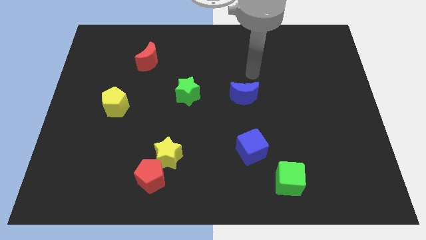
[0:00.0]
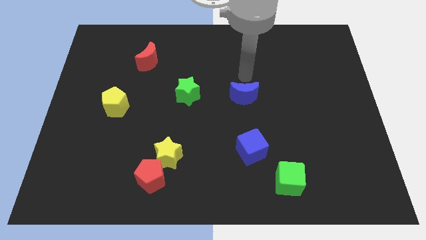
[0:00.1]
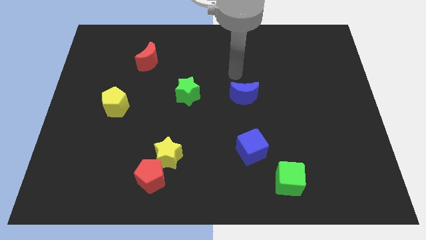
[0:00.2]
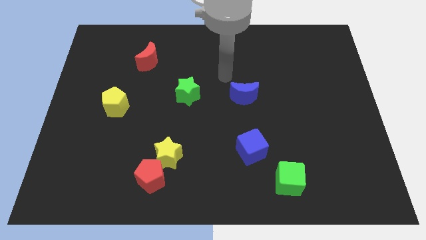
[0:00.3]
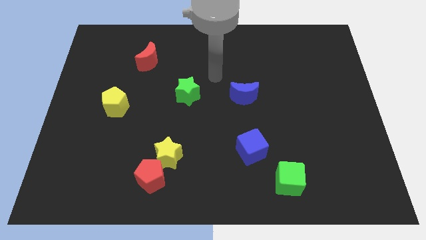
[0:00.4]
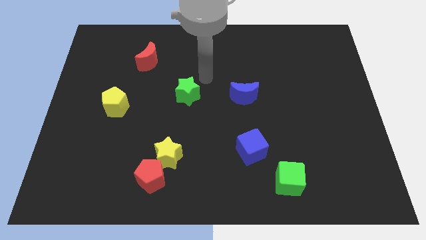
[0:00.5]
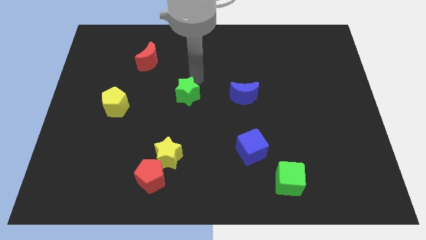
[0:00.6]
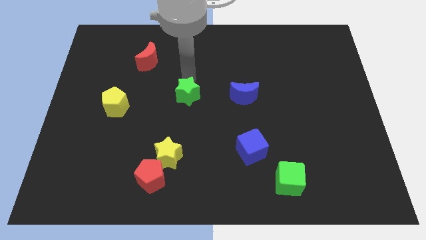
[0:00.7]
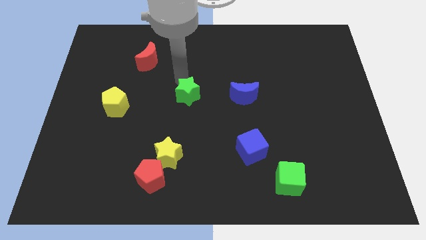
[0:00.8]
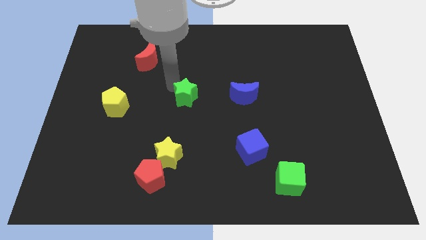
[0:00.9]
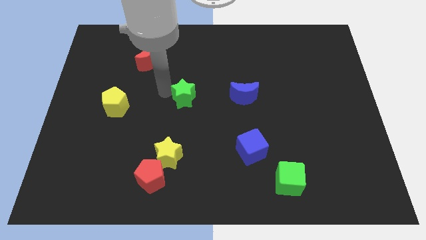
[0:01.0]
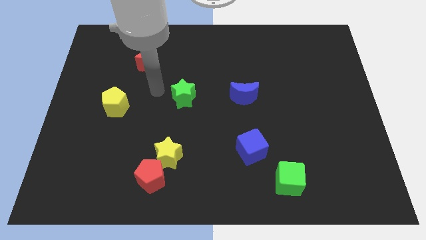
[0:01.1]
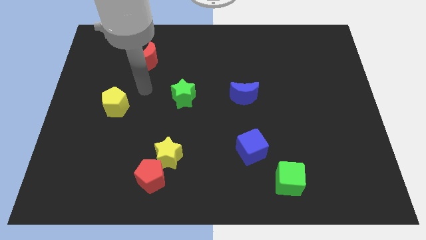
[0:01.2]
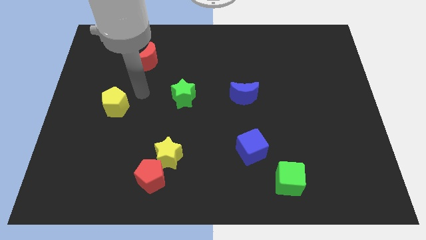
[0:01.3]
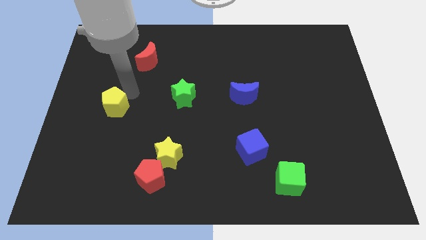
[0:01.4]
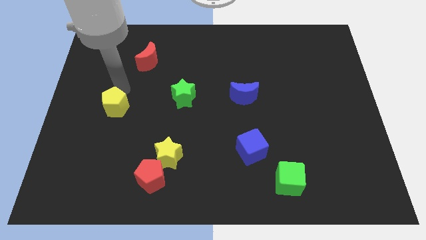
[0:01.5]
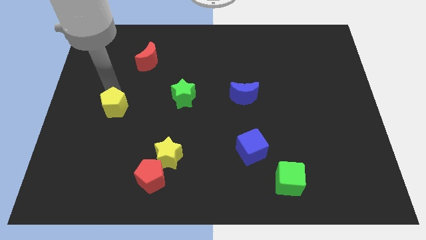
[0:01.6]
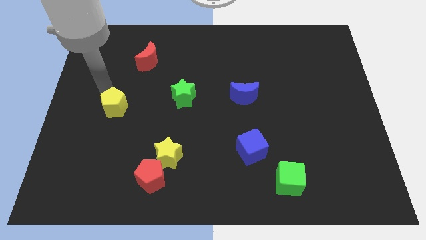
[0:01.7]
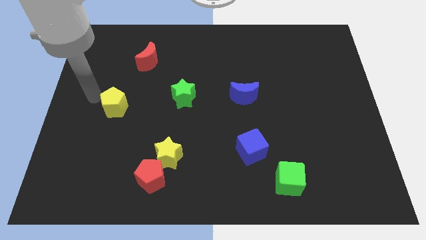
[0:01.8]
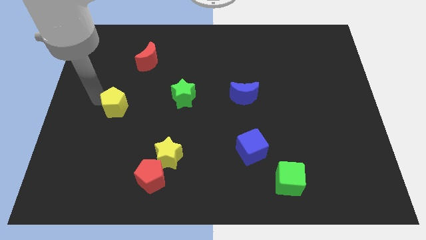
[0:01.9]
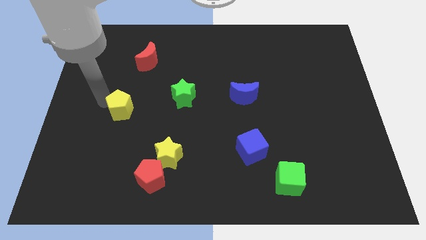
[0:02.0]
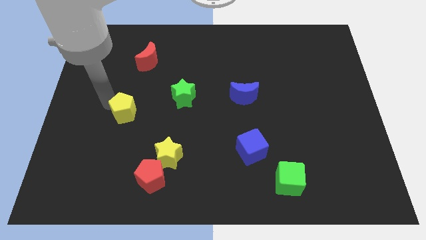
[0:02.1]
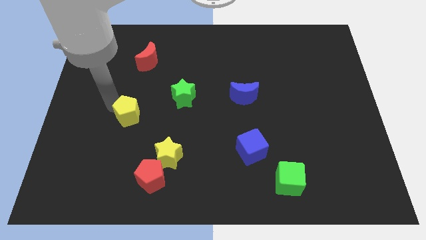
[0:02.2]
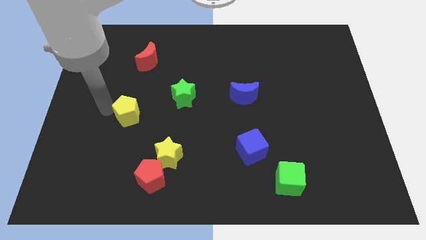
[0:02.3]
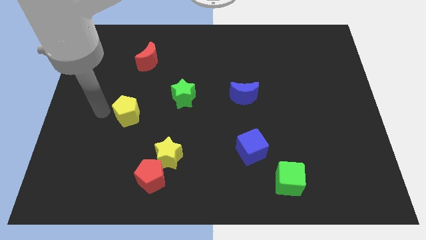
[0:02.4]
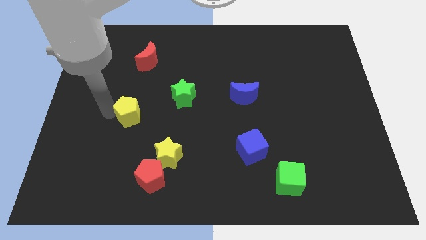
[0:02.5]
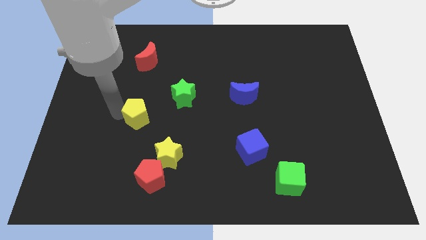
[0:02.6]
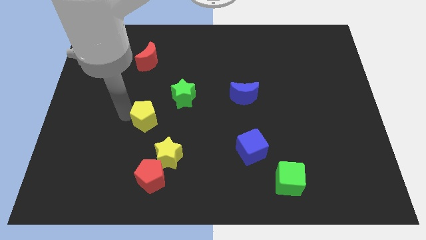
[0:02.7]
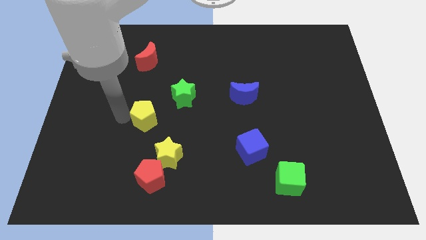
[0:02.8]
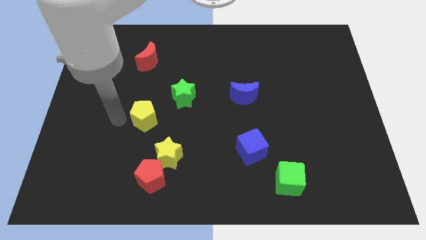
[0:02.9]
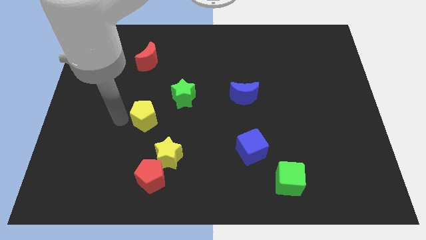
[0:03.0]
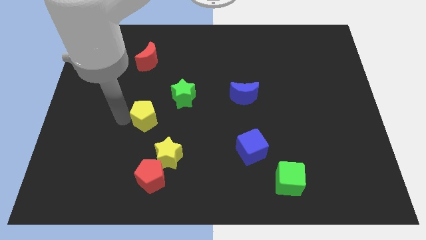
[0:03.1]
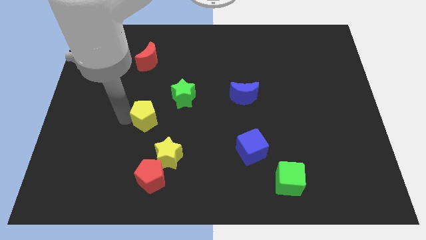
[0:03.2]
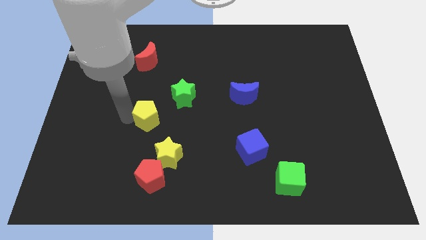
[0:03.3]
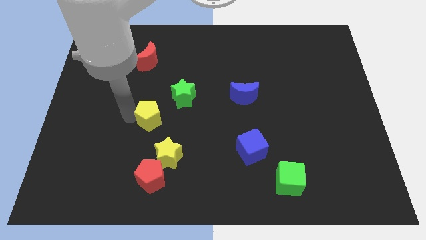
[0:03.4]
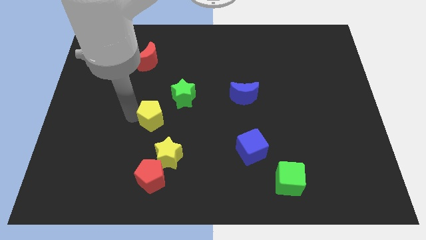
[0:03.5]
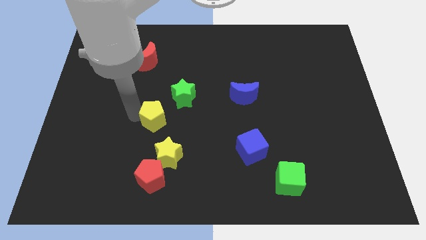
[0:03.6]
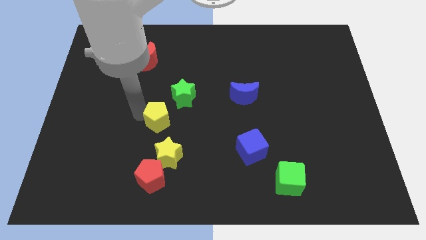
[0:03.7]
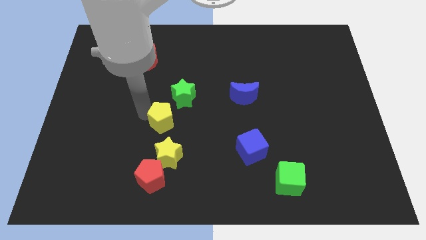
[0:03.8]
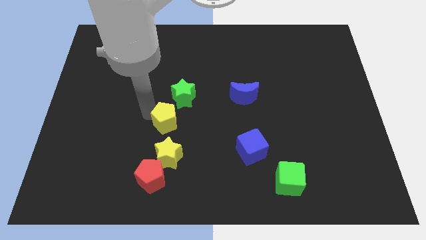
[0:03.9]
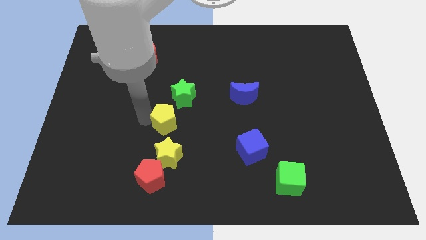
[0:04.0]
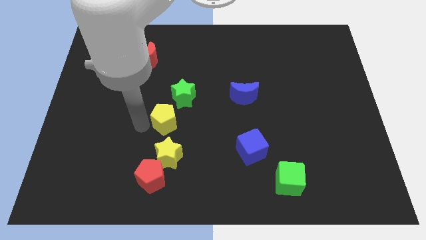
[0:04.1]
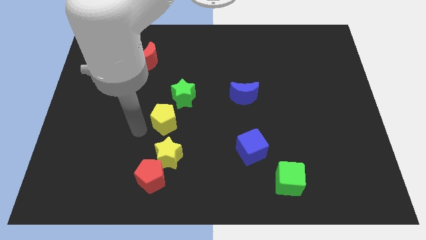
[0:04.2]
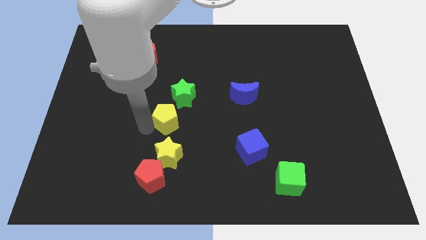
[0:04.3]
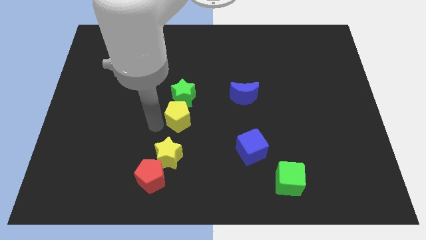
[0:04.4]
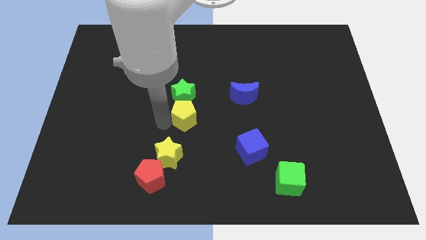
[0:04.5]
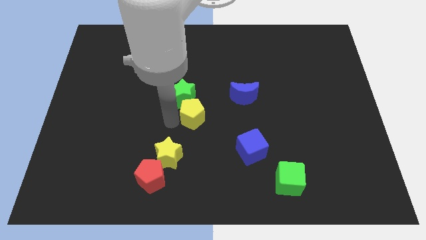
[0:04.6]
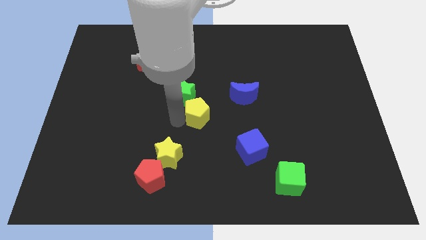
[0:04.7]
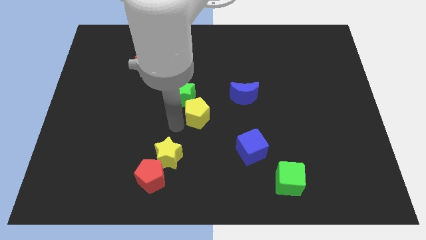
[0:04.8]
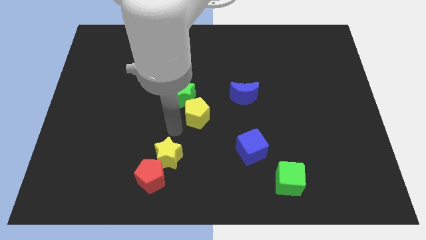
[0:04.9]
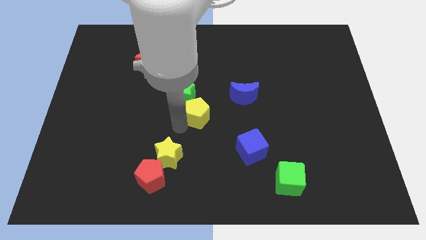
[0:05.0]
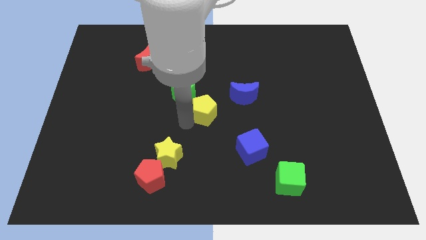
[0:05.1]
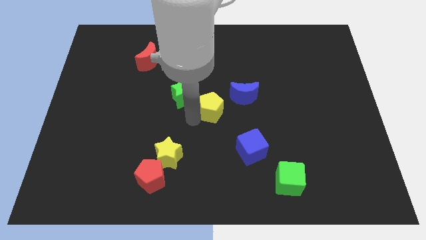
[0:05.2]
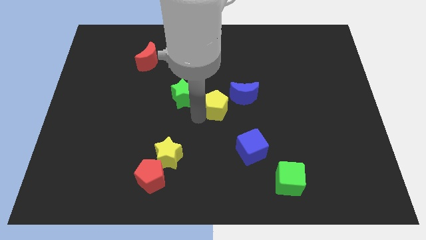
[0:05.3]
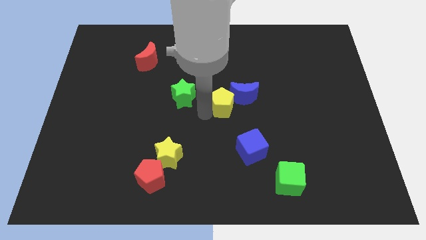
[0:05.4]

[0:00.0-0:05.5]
push the yellow pentagon to the blue moon

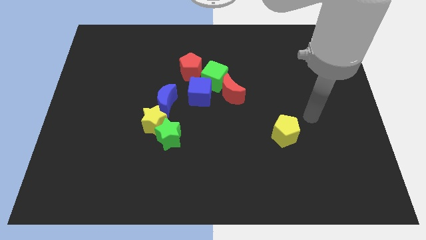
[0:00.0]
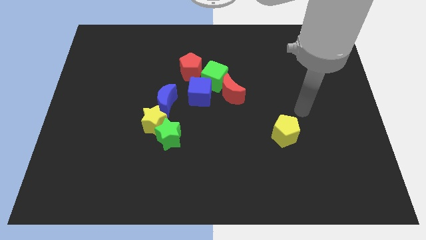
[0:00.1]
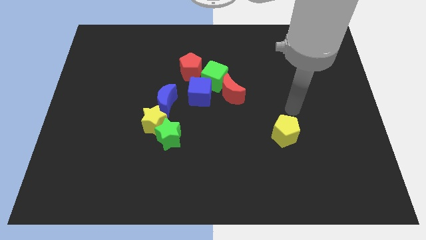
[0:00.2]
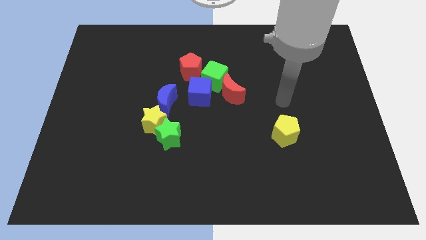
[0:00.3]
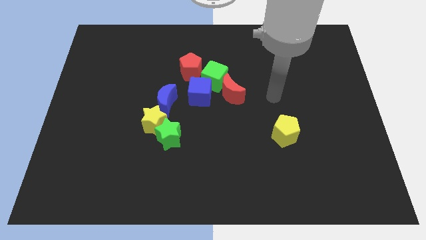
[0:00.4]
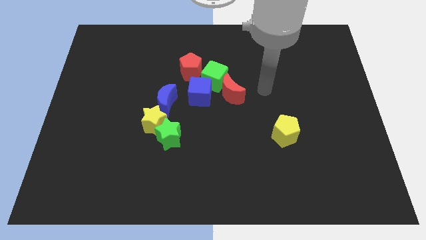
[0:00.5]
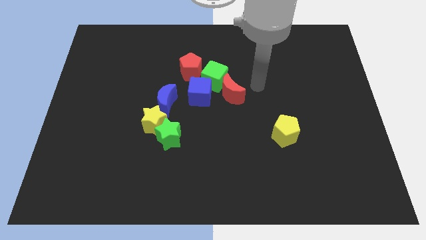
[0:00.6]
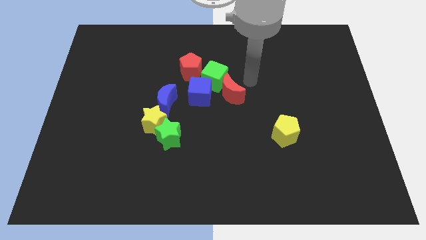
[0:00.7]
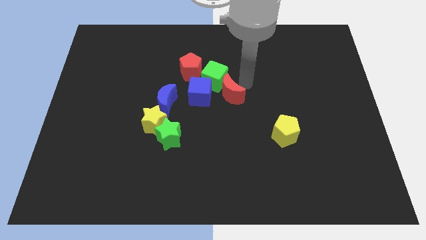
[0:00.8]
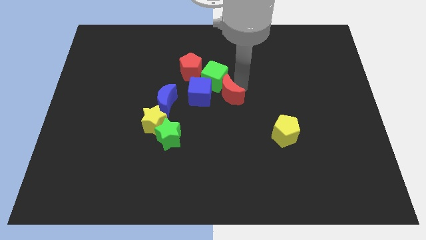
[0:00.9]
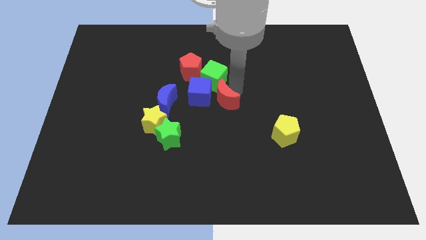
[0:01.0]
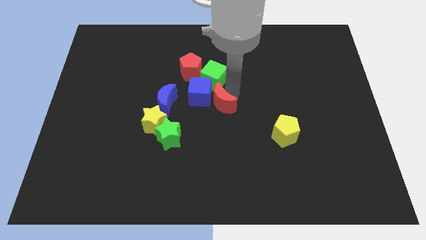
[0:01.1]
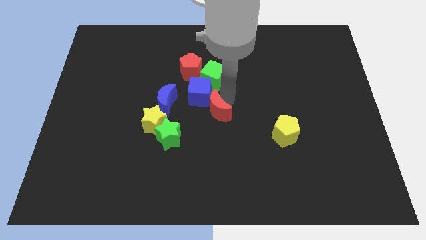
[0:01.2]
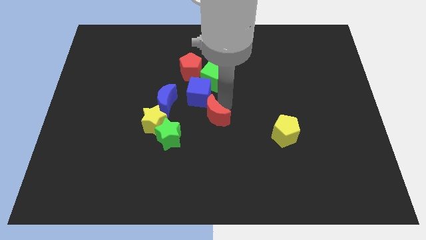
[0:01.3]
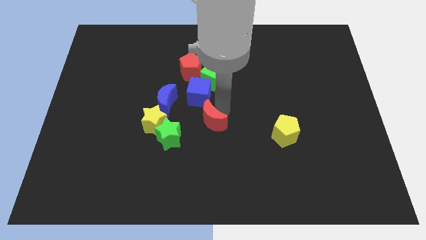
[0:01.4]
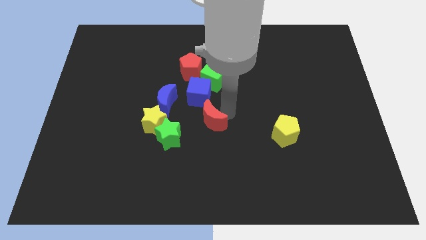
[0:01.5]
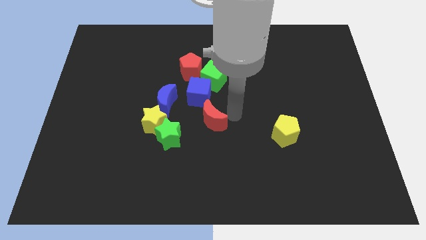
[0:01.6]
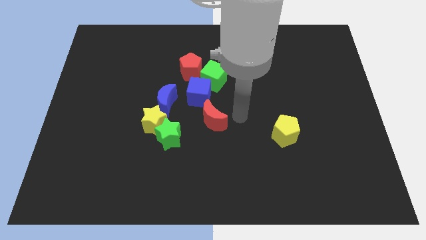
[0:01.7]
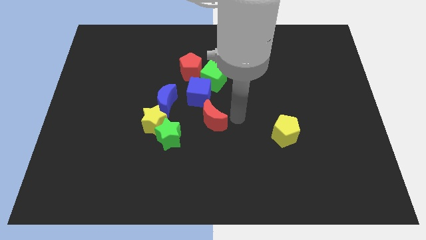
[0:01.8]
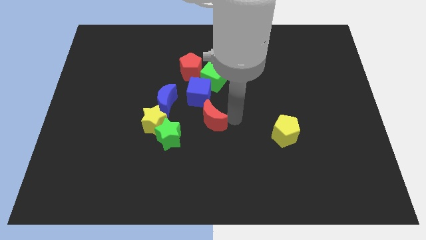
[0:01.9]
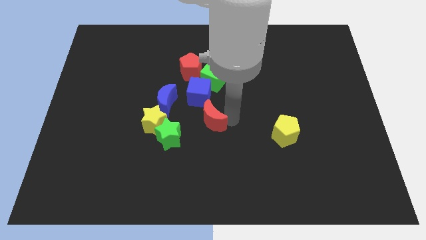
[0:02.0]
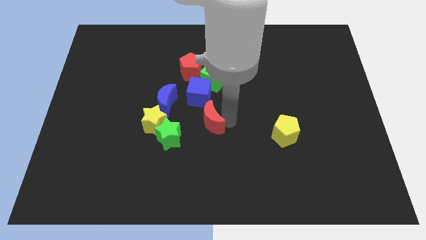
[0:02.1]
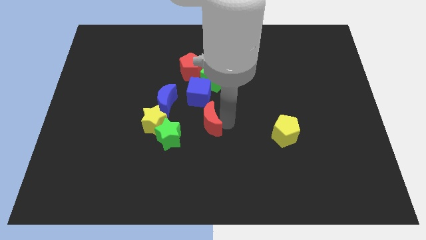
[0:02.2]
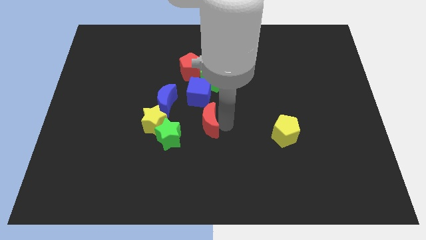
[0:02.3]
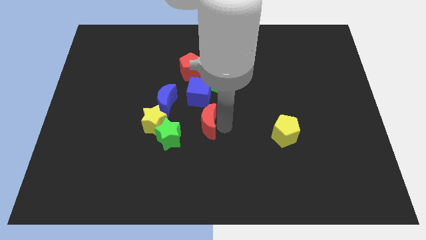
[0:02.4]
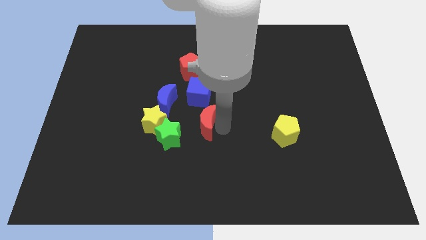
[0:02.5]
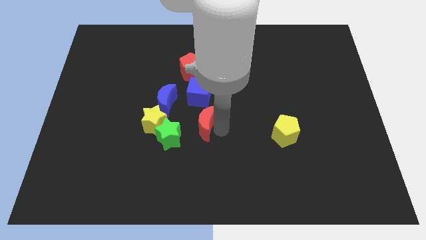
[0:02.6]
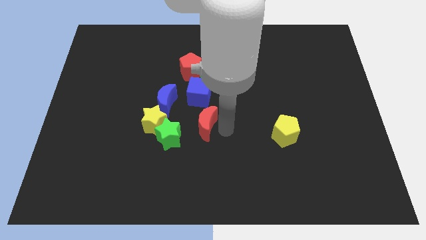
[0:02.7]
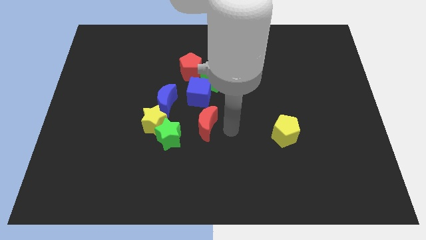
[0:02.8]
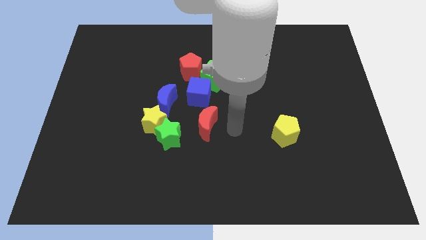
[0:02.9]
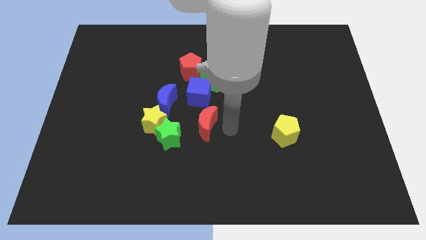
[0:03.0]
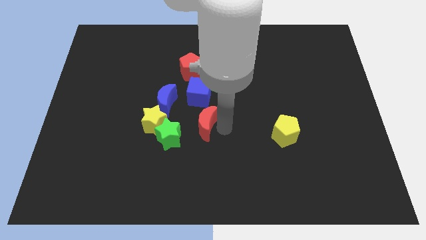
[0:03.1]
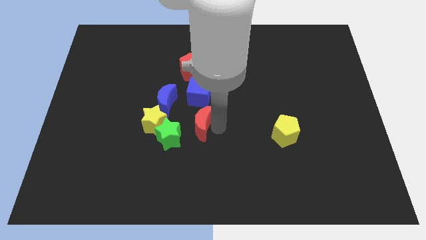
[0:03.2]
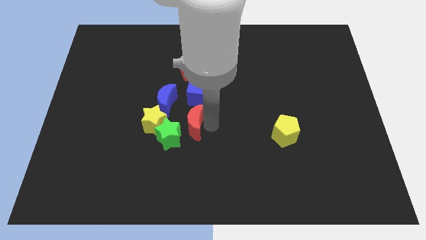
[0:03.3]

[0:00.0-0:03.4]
put the red moon close to the green star
